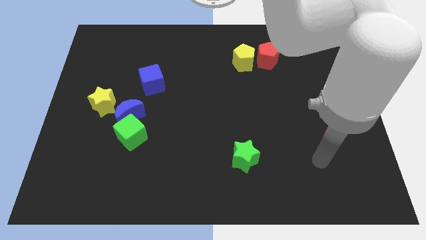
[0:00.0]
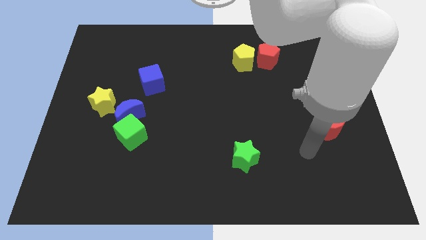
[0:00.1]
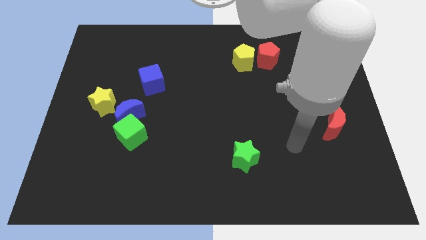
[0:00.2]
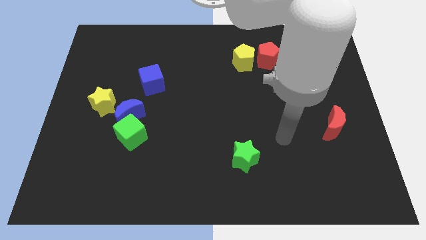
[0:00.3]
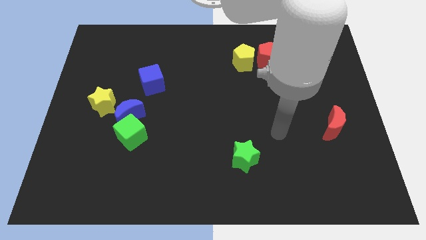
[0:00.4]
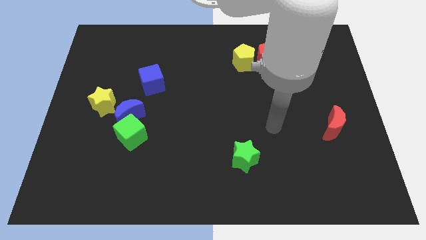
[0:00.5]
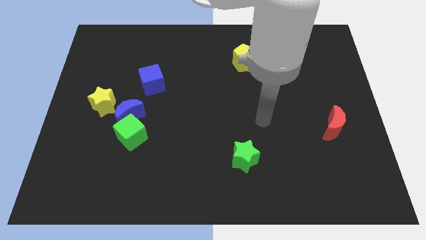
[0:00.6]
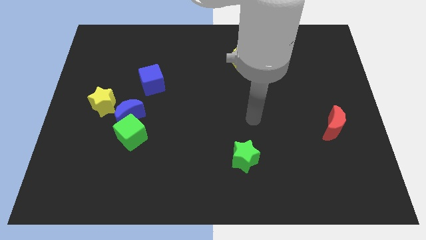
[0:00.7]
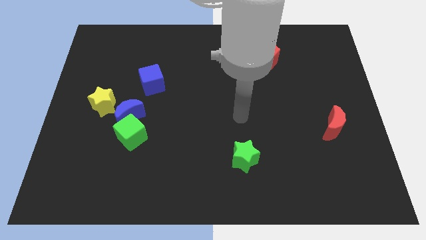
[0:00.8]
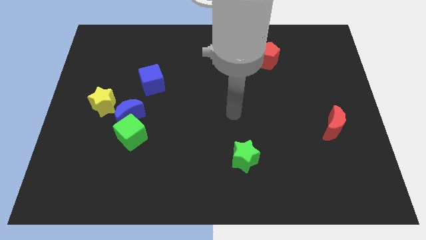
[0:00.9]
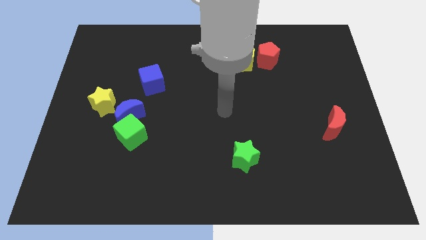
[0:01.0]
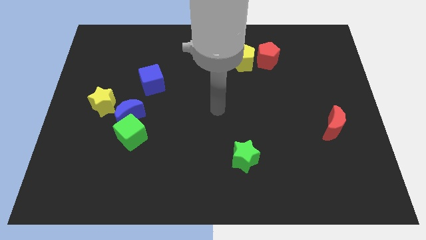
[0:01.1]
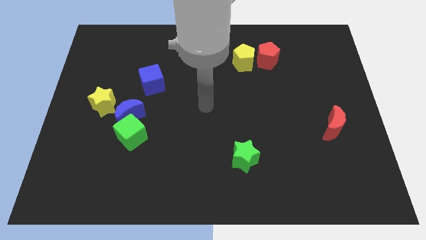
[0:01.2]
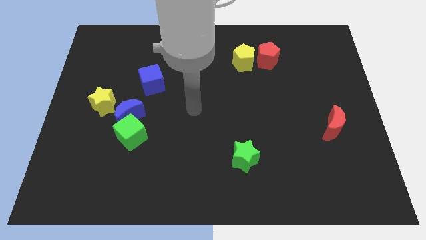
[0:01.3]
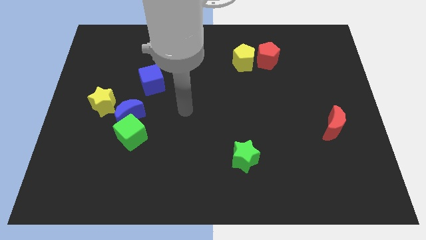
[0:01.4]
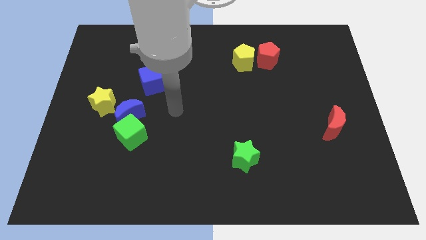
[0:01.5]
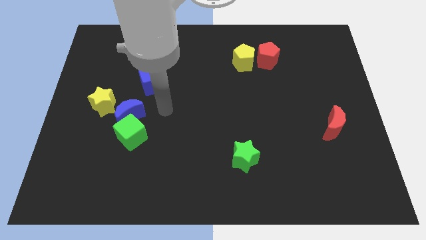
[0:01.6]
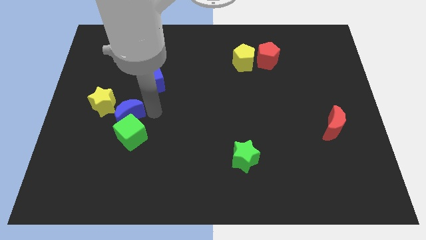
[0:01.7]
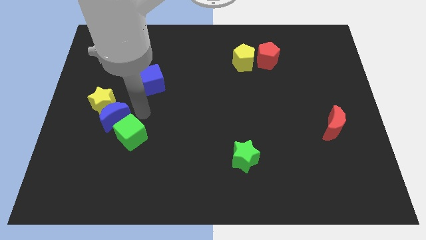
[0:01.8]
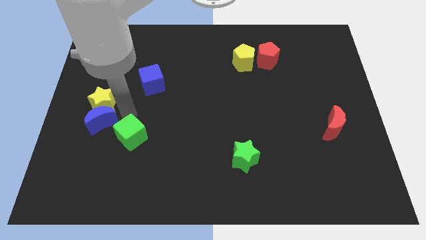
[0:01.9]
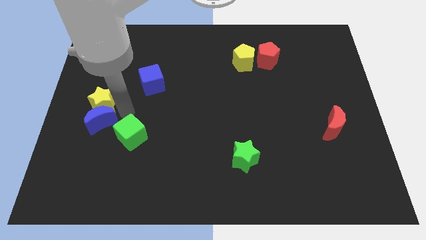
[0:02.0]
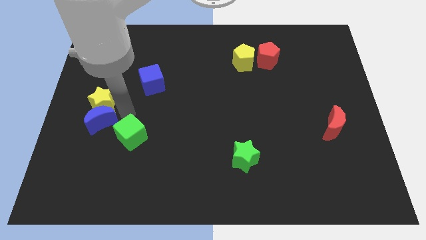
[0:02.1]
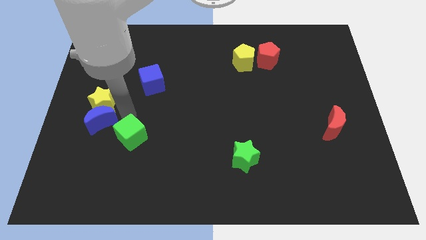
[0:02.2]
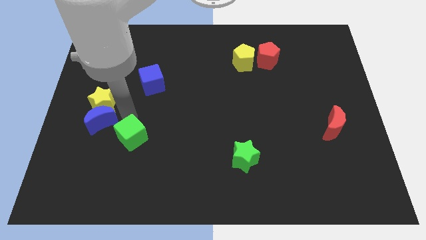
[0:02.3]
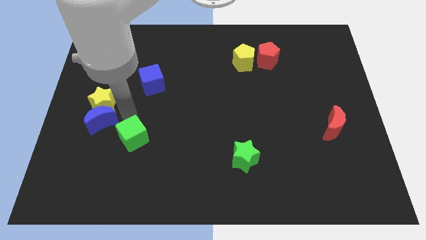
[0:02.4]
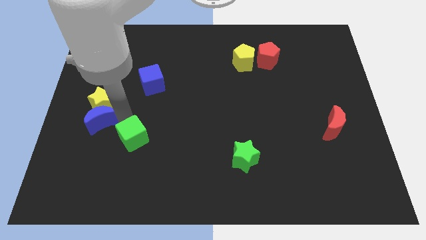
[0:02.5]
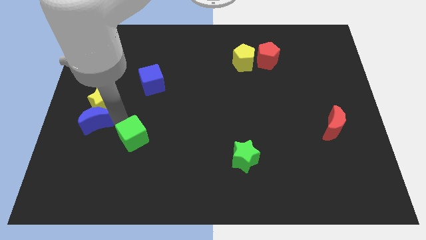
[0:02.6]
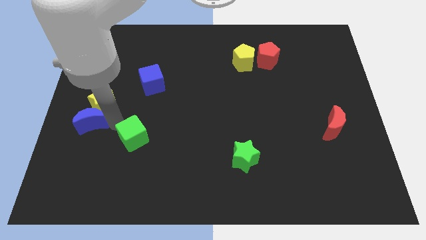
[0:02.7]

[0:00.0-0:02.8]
pull the green cube apart from the blue moon

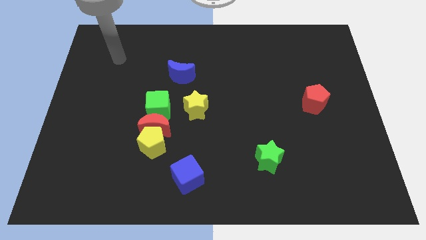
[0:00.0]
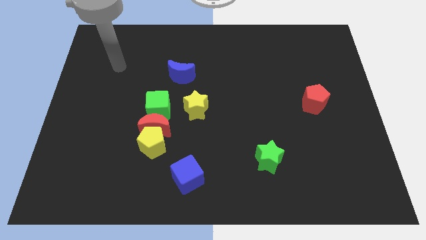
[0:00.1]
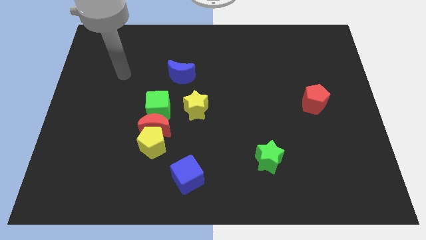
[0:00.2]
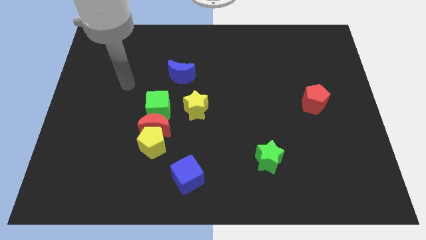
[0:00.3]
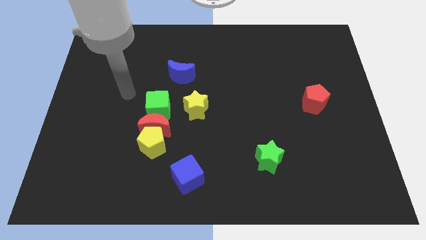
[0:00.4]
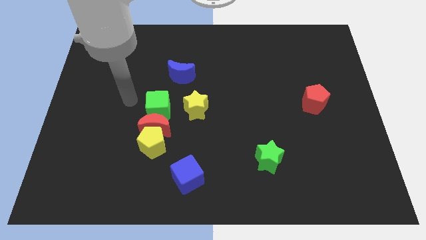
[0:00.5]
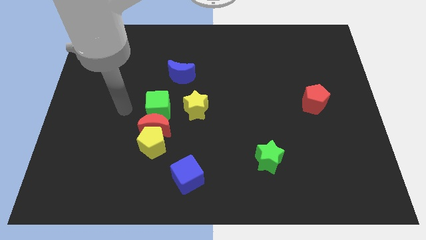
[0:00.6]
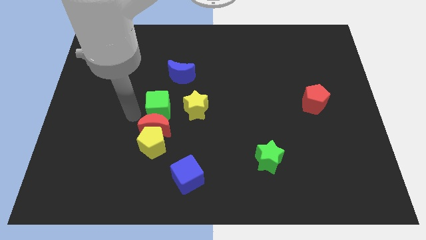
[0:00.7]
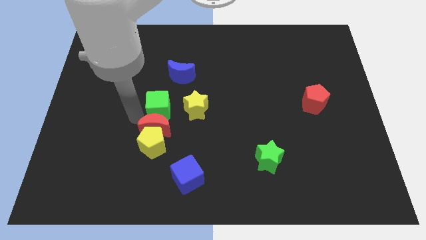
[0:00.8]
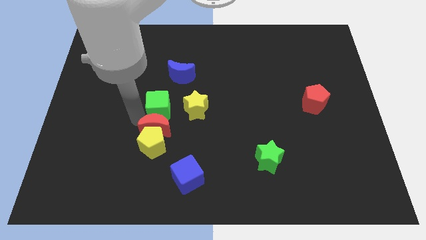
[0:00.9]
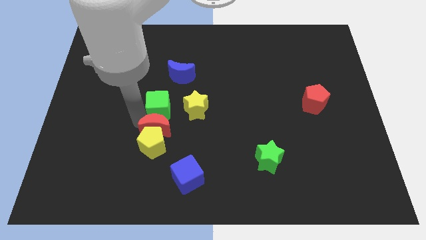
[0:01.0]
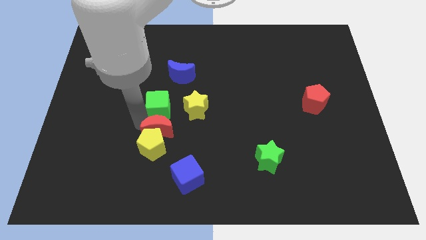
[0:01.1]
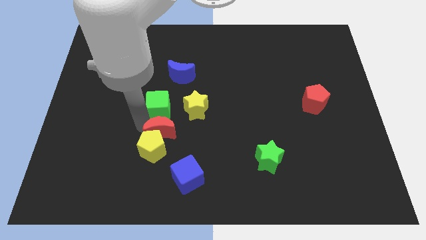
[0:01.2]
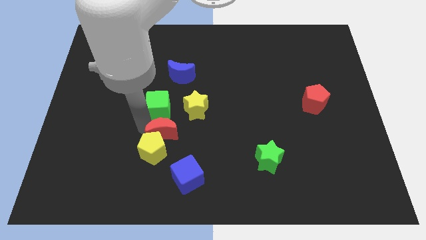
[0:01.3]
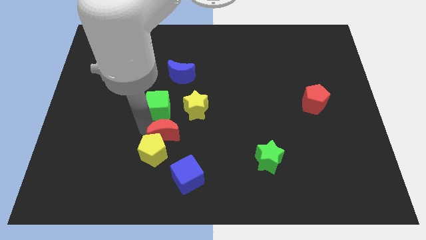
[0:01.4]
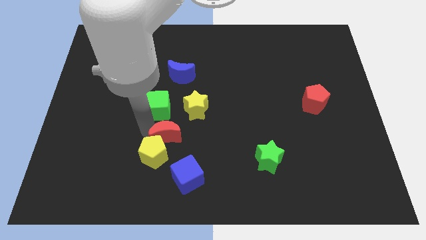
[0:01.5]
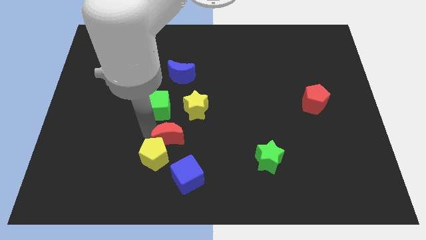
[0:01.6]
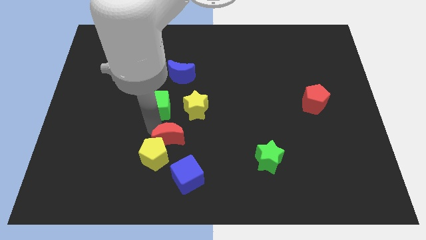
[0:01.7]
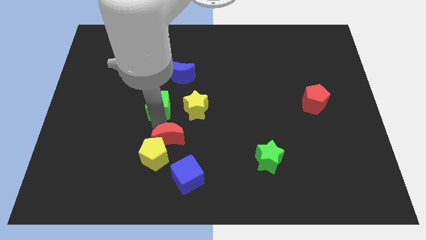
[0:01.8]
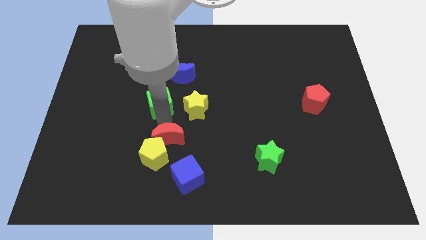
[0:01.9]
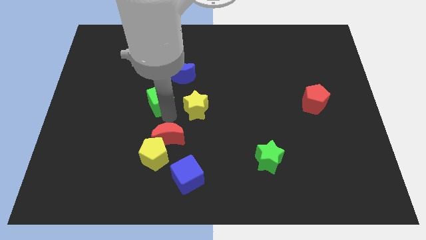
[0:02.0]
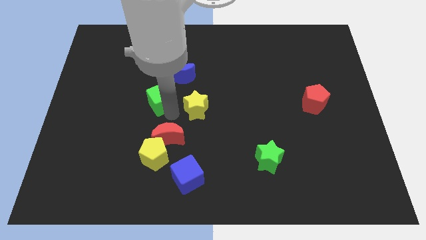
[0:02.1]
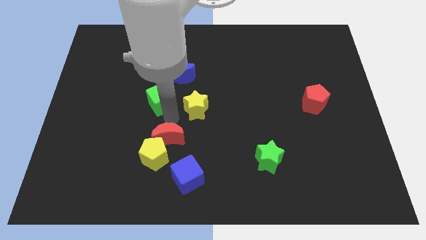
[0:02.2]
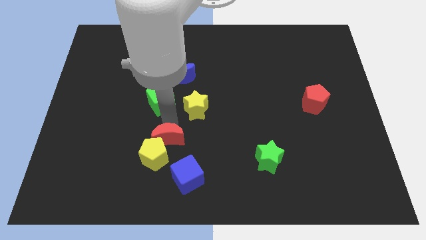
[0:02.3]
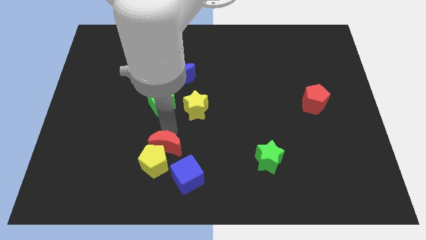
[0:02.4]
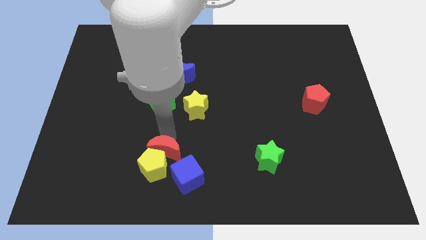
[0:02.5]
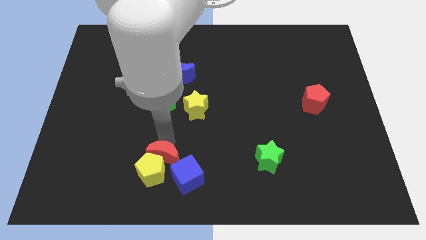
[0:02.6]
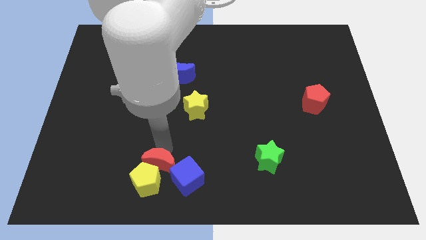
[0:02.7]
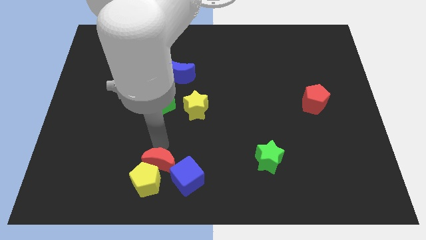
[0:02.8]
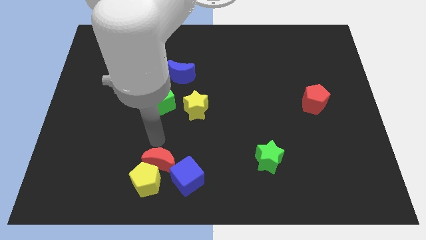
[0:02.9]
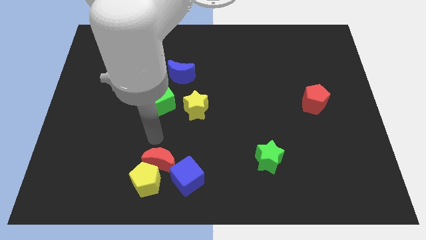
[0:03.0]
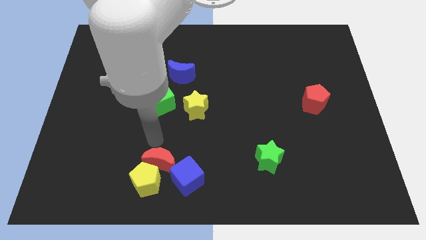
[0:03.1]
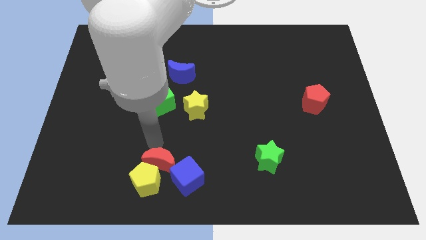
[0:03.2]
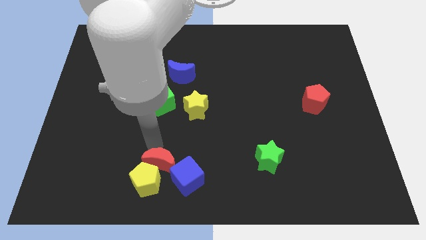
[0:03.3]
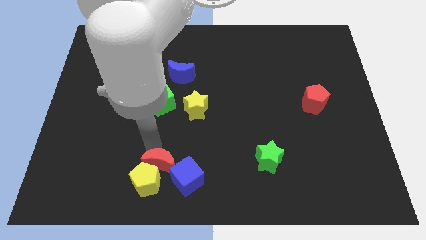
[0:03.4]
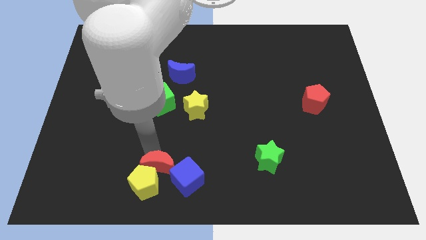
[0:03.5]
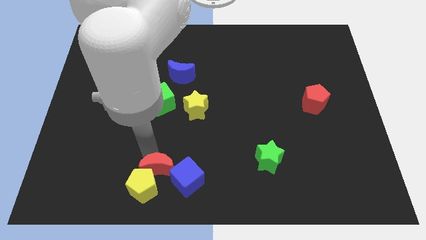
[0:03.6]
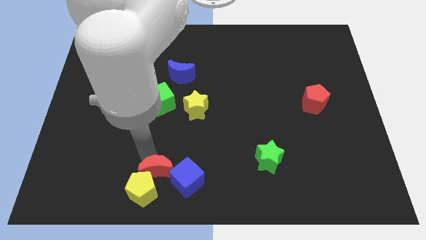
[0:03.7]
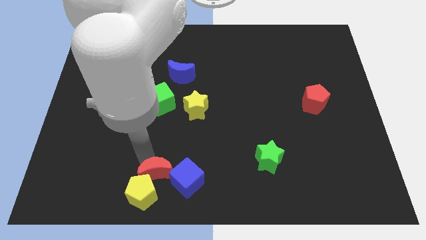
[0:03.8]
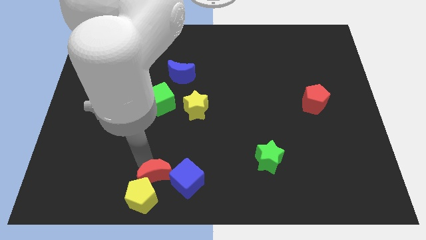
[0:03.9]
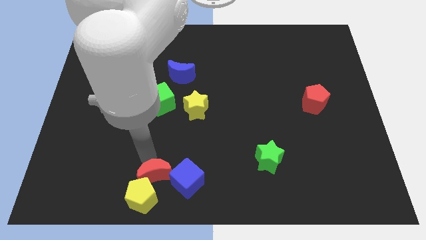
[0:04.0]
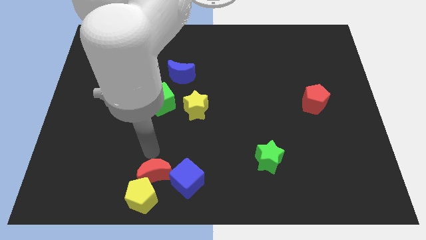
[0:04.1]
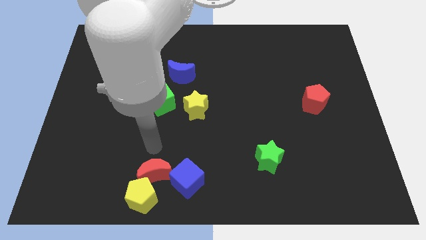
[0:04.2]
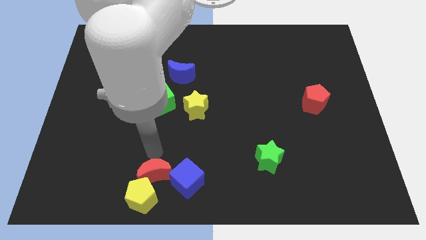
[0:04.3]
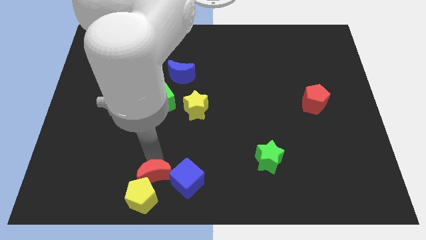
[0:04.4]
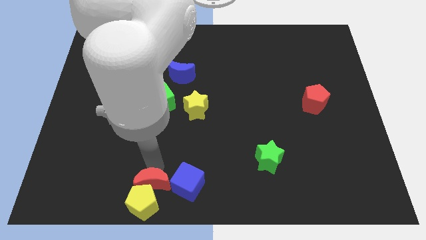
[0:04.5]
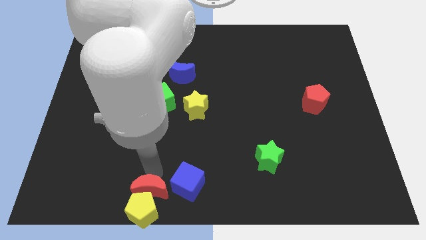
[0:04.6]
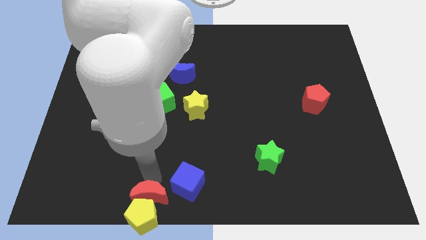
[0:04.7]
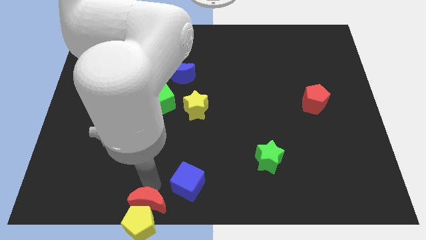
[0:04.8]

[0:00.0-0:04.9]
pull the red moon apart from the yellow pentagon and green cube

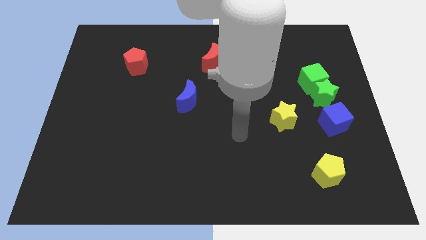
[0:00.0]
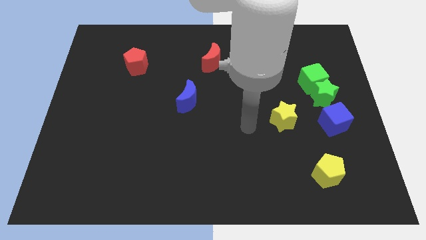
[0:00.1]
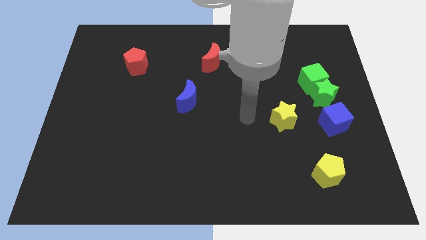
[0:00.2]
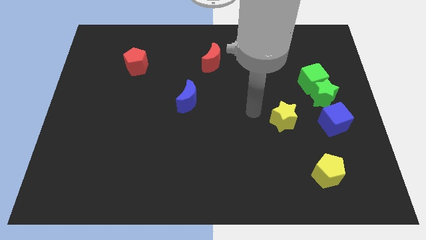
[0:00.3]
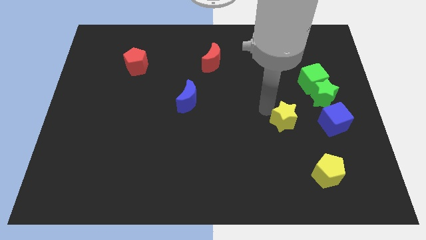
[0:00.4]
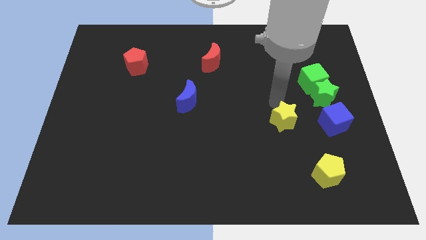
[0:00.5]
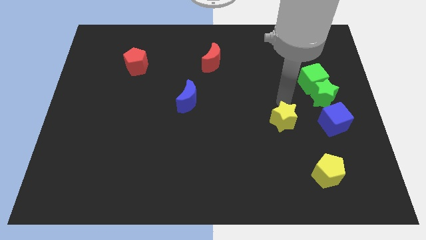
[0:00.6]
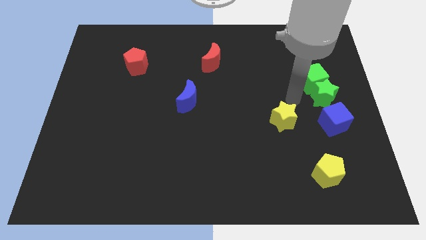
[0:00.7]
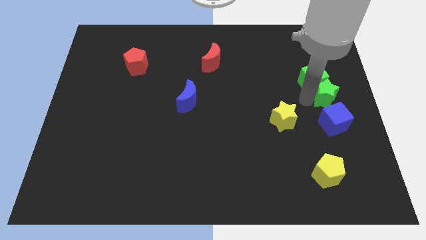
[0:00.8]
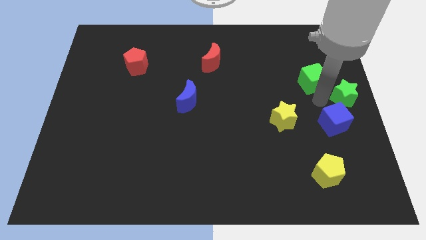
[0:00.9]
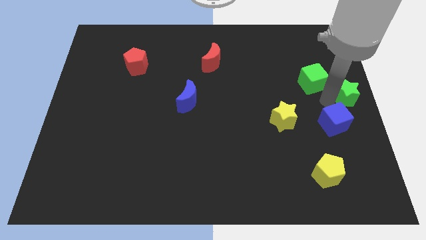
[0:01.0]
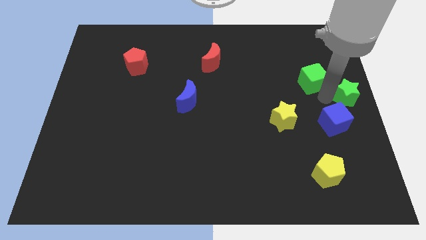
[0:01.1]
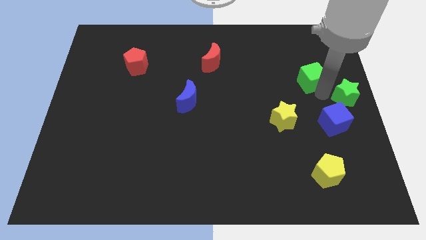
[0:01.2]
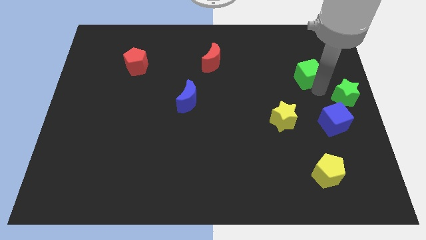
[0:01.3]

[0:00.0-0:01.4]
move the green cube away from the green star

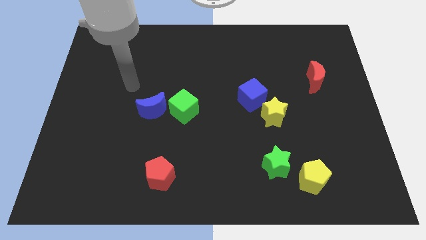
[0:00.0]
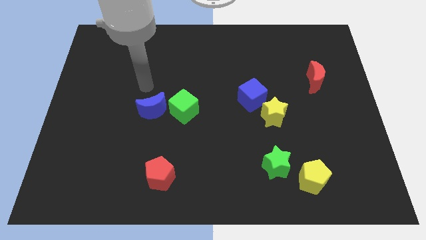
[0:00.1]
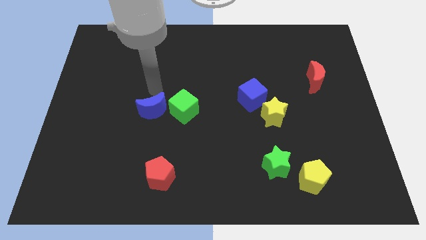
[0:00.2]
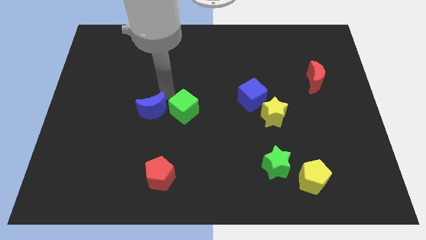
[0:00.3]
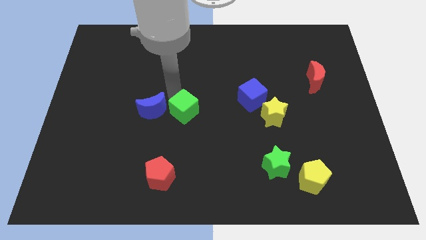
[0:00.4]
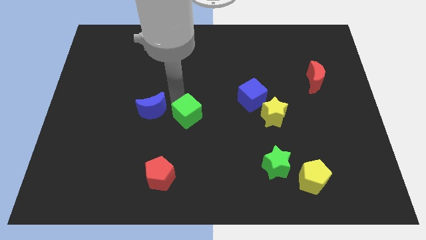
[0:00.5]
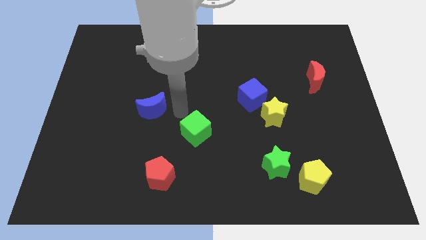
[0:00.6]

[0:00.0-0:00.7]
separate the blue moon from the green cube
